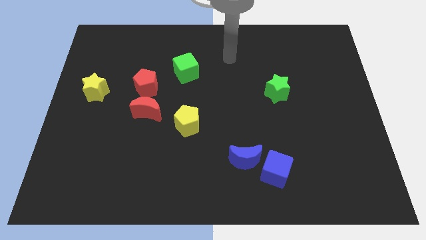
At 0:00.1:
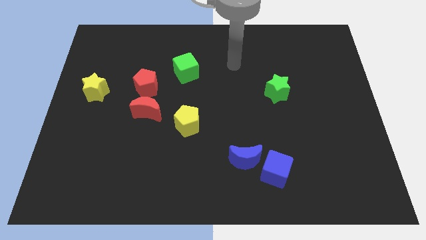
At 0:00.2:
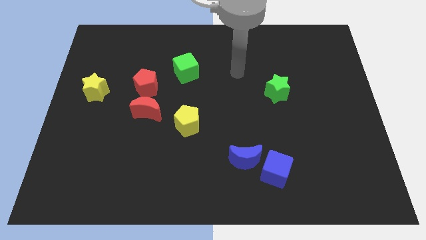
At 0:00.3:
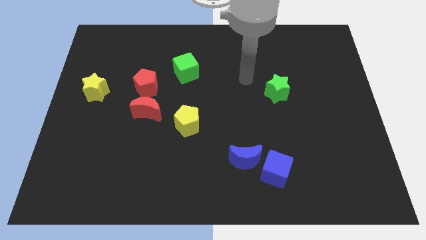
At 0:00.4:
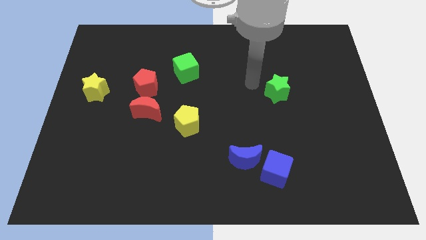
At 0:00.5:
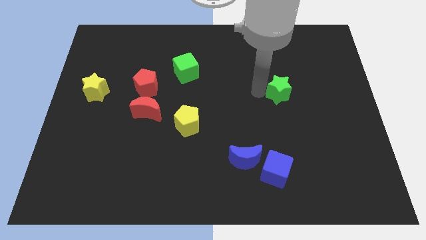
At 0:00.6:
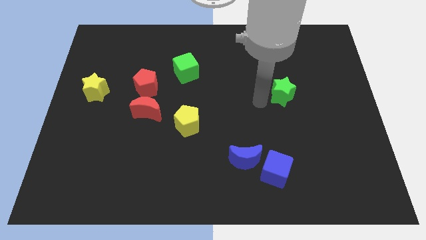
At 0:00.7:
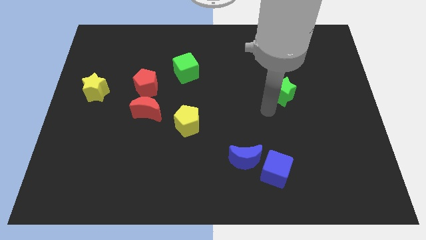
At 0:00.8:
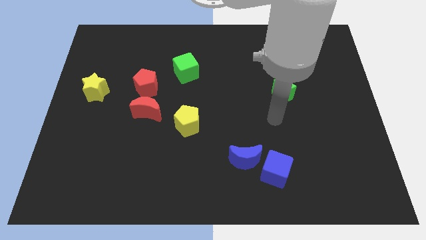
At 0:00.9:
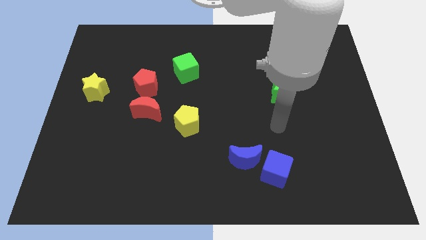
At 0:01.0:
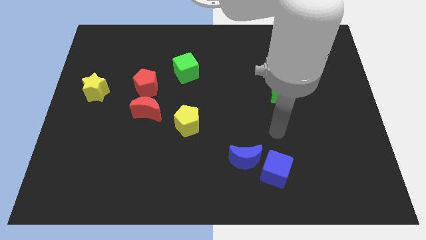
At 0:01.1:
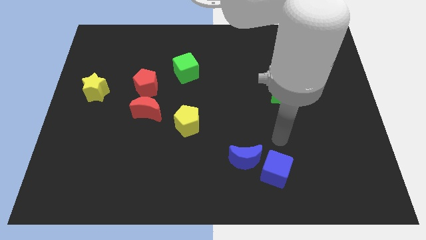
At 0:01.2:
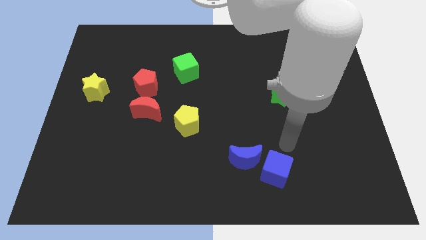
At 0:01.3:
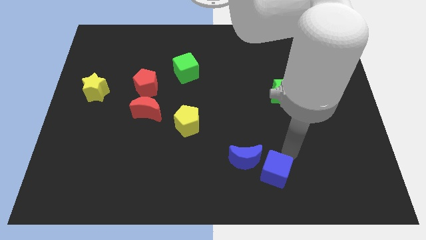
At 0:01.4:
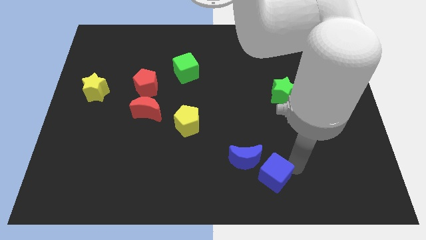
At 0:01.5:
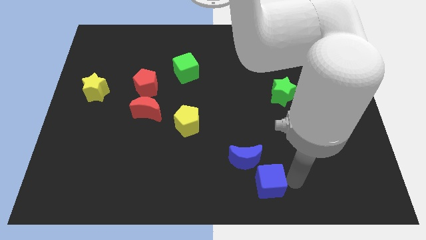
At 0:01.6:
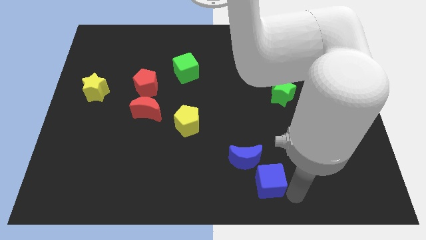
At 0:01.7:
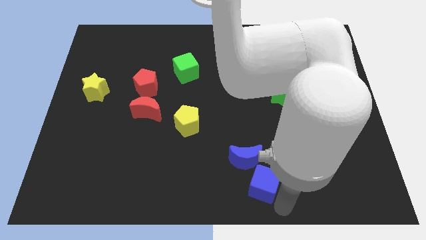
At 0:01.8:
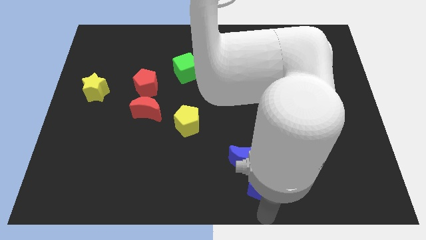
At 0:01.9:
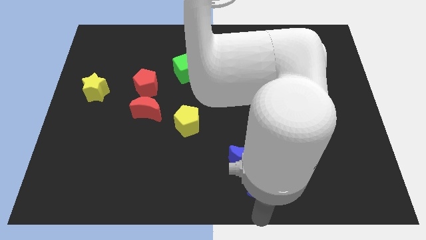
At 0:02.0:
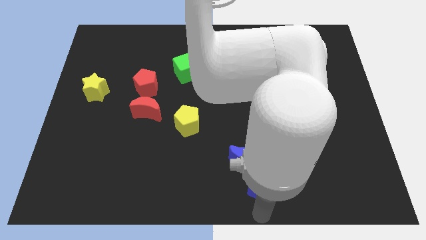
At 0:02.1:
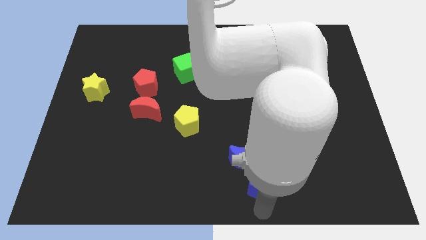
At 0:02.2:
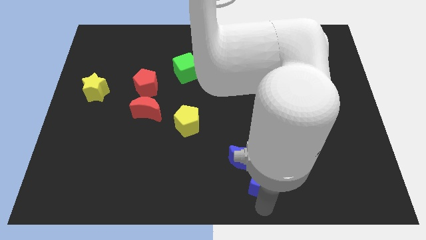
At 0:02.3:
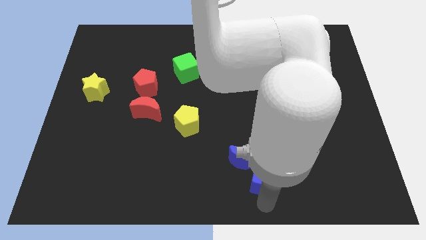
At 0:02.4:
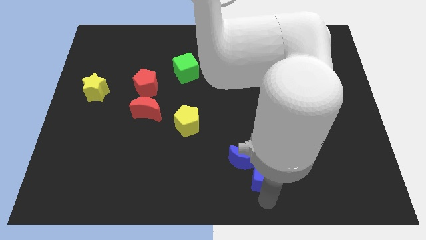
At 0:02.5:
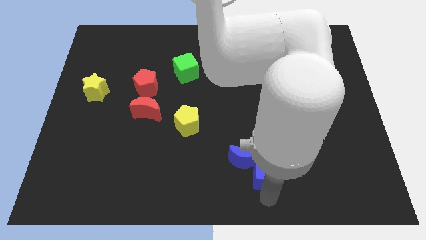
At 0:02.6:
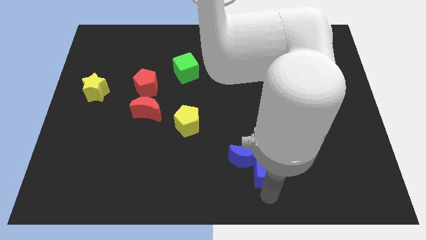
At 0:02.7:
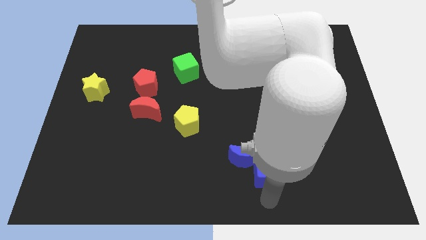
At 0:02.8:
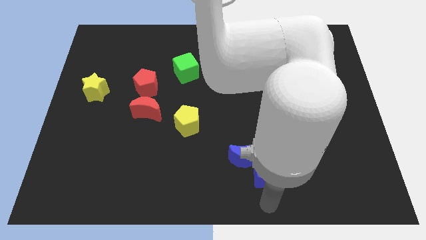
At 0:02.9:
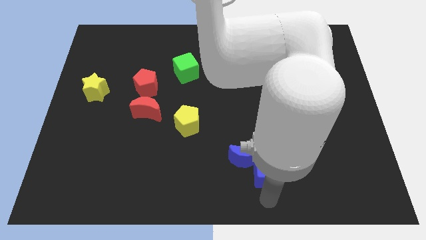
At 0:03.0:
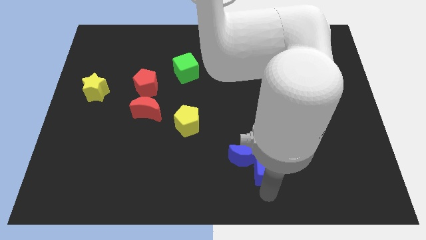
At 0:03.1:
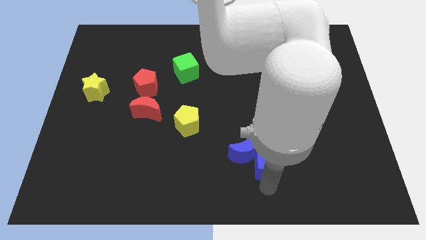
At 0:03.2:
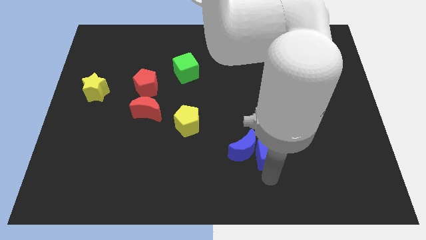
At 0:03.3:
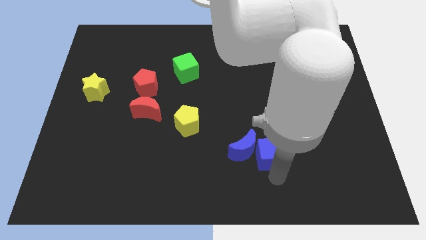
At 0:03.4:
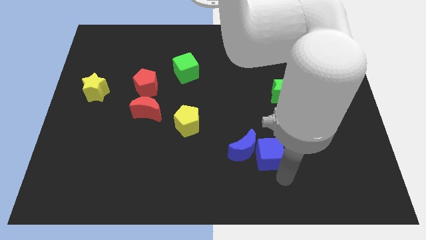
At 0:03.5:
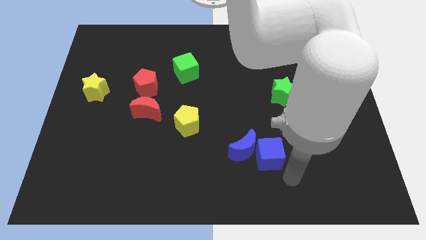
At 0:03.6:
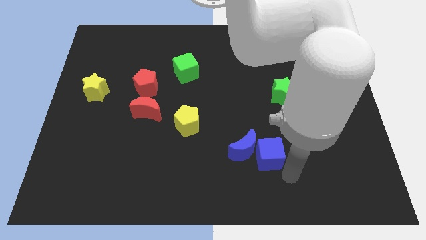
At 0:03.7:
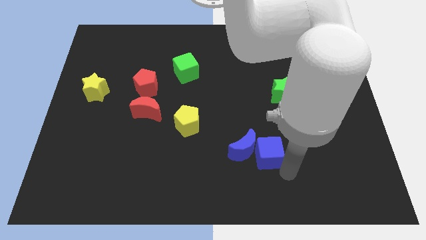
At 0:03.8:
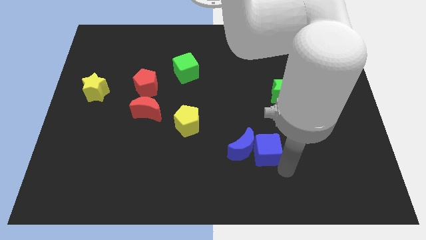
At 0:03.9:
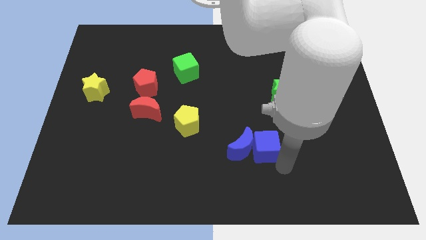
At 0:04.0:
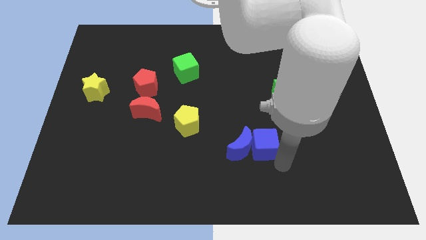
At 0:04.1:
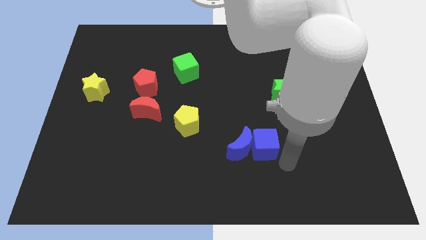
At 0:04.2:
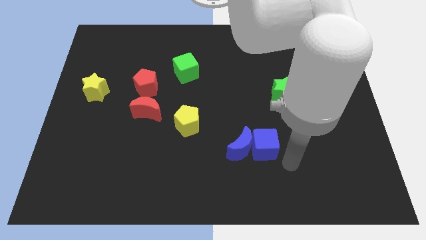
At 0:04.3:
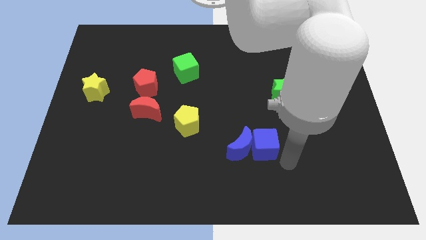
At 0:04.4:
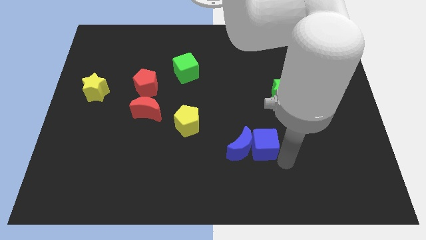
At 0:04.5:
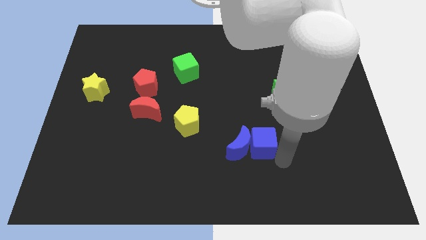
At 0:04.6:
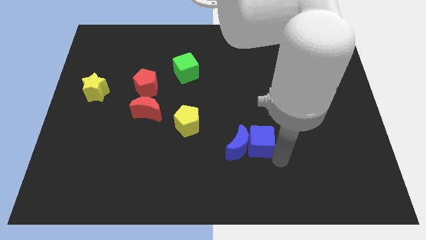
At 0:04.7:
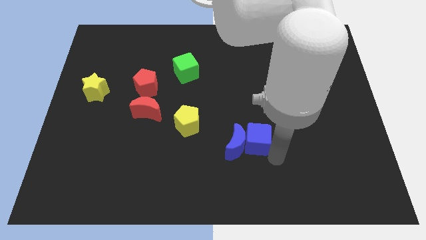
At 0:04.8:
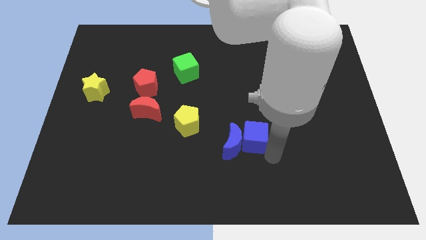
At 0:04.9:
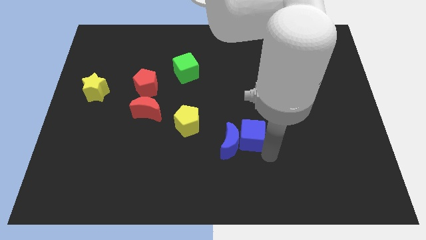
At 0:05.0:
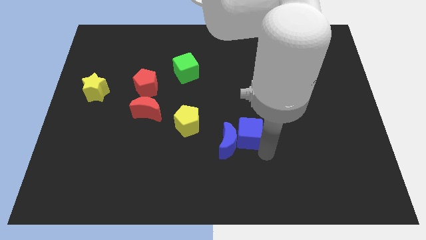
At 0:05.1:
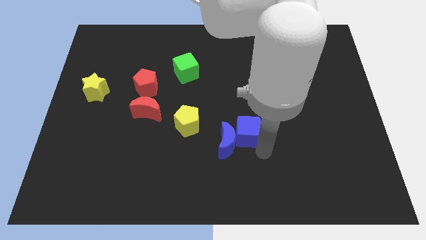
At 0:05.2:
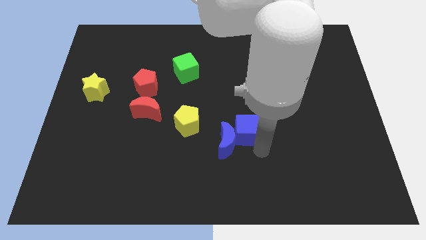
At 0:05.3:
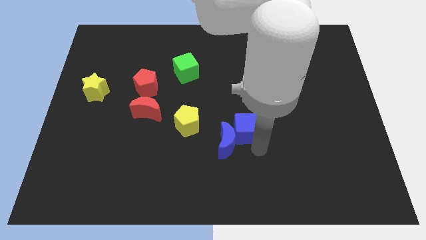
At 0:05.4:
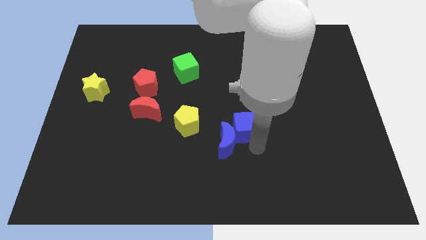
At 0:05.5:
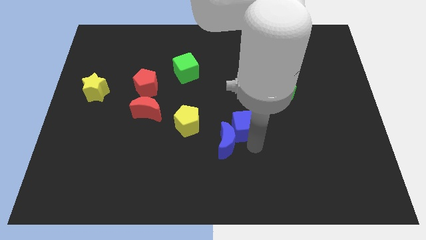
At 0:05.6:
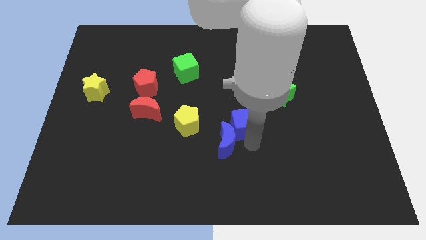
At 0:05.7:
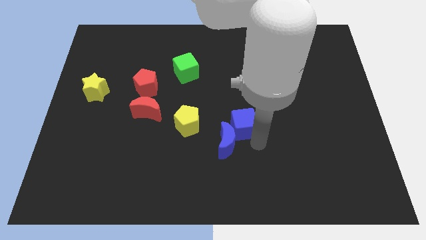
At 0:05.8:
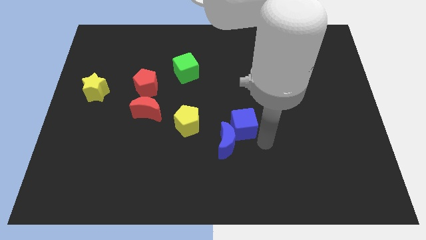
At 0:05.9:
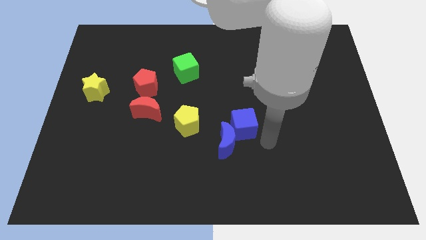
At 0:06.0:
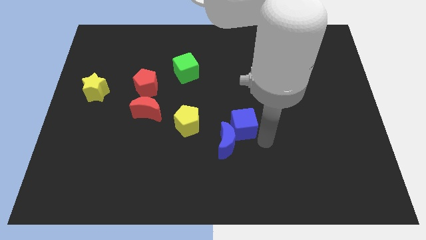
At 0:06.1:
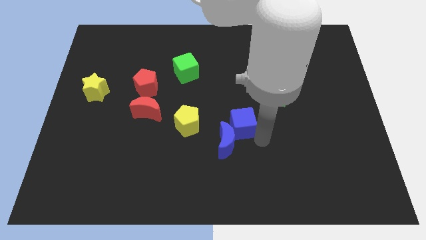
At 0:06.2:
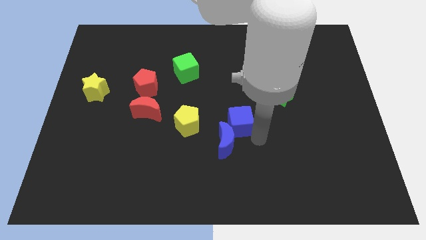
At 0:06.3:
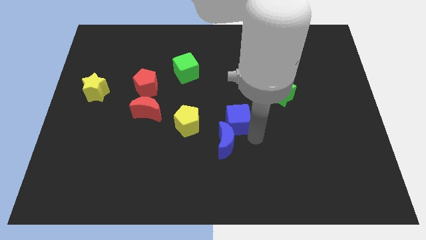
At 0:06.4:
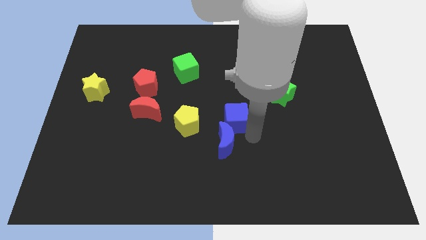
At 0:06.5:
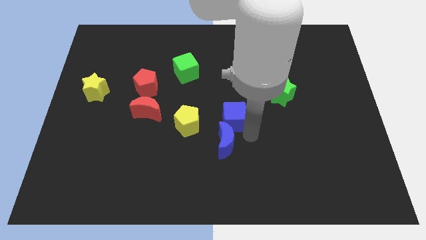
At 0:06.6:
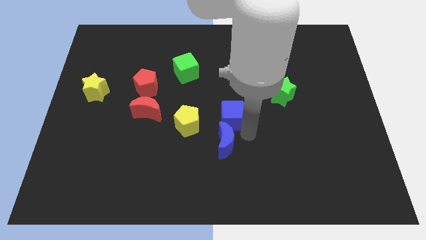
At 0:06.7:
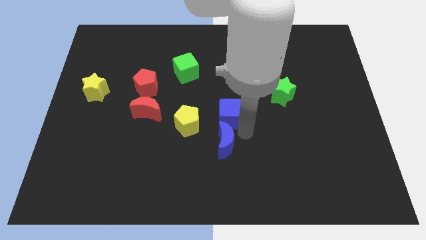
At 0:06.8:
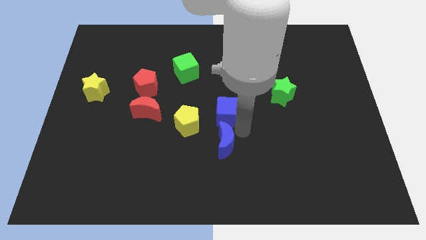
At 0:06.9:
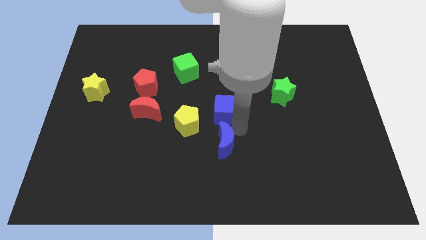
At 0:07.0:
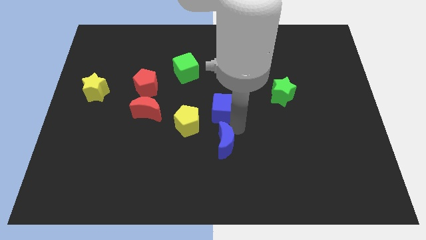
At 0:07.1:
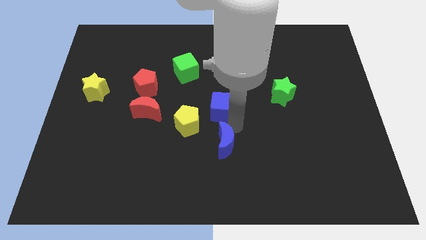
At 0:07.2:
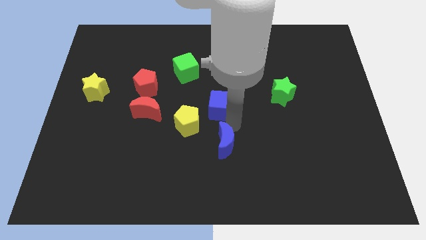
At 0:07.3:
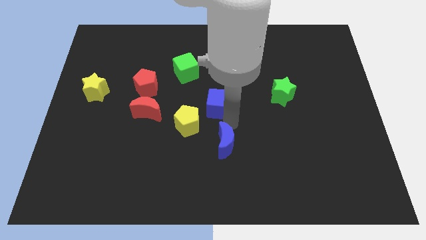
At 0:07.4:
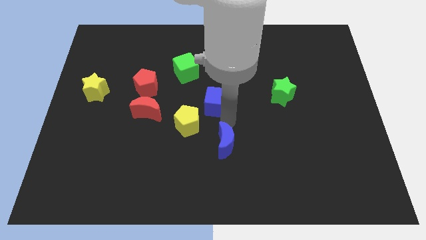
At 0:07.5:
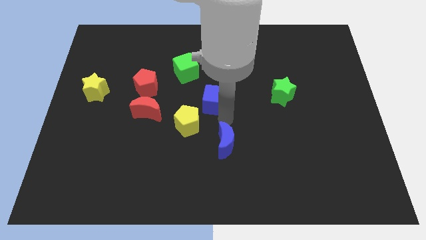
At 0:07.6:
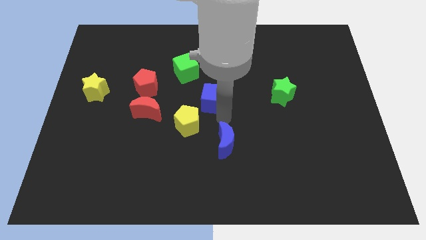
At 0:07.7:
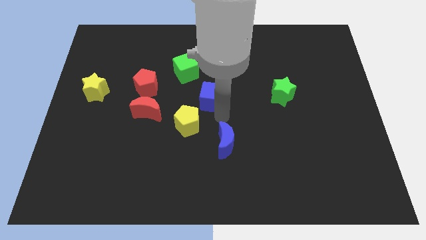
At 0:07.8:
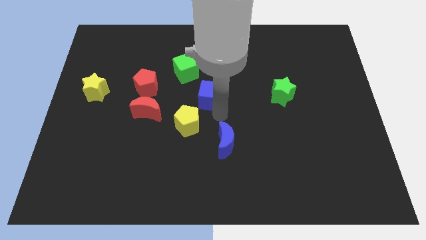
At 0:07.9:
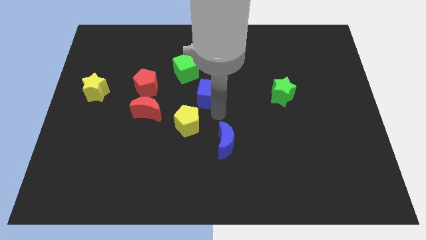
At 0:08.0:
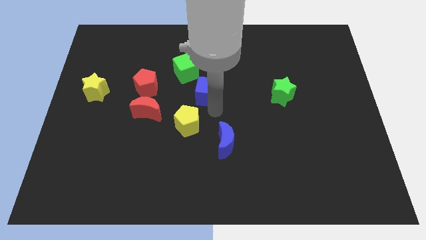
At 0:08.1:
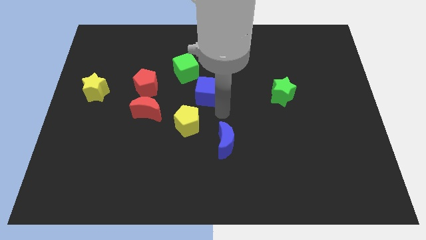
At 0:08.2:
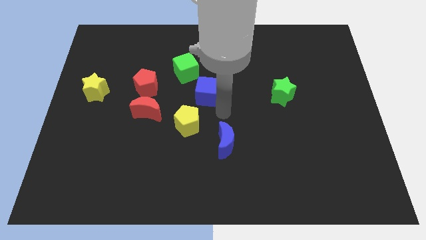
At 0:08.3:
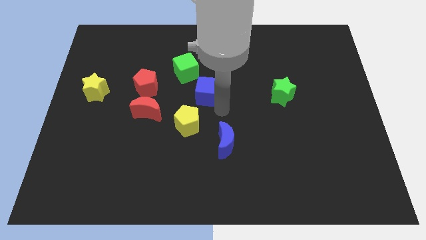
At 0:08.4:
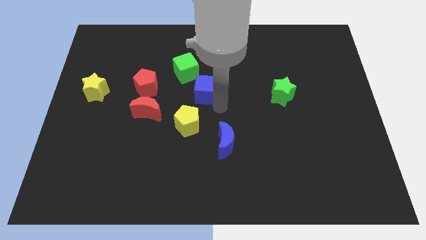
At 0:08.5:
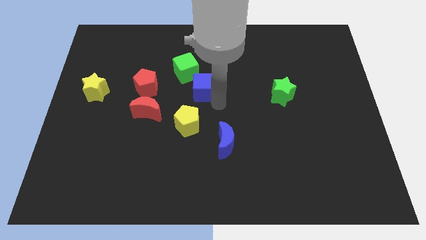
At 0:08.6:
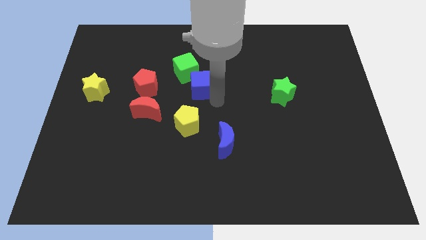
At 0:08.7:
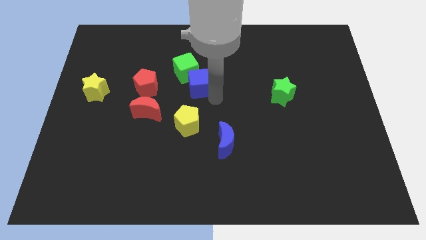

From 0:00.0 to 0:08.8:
move the blue cube close to the green cube
